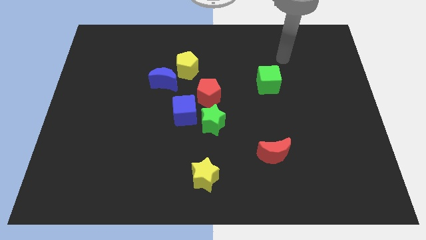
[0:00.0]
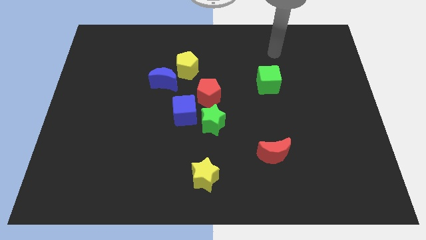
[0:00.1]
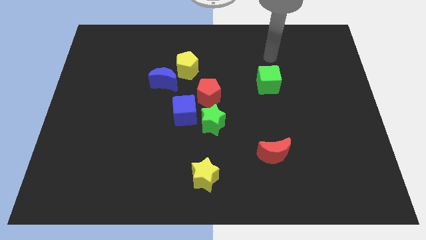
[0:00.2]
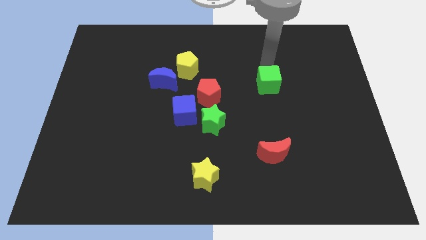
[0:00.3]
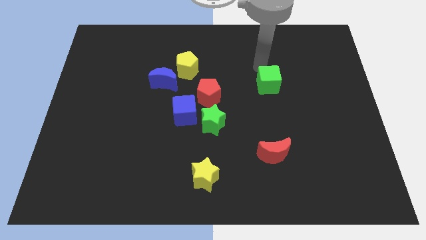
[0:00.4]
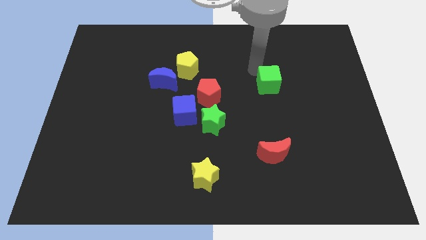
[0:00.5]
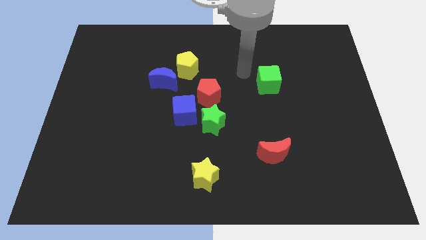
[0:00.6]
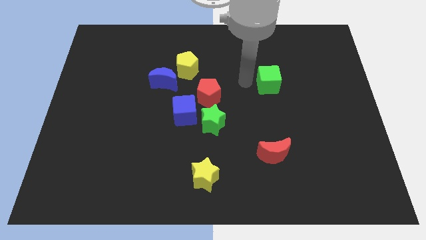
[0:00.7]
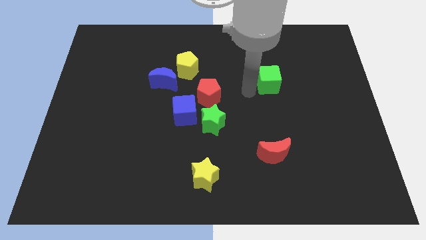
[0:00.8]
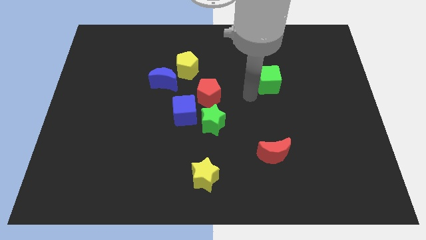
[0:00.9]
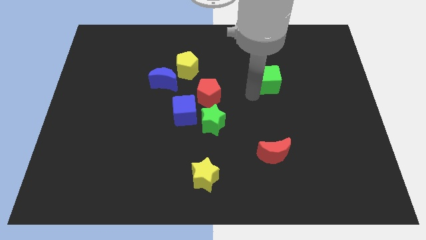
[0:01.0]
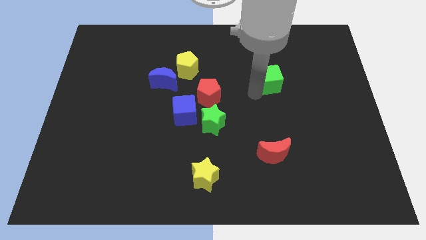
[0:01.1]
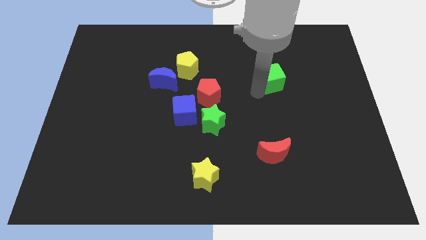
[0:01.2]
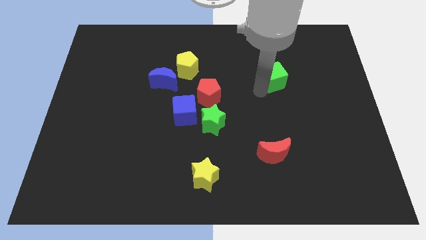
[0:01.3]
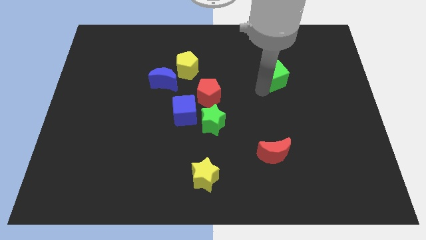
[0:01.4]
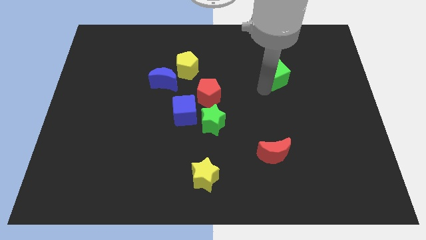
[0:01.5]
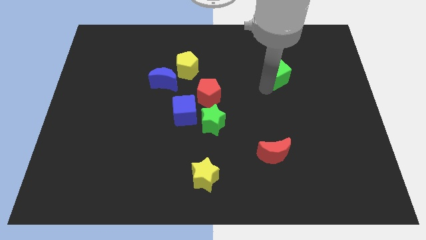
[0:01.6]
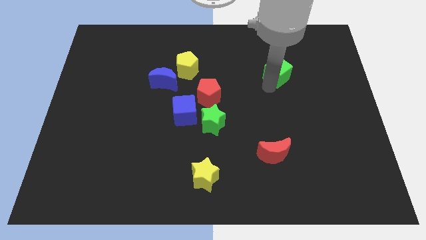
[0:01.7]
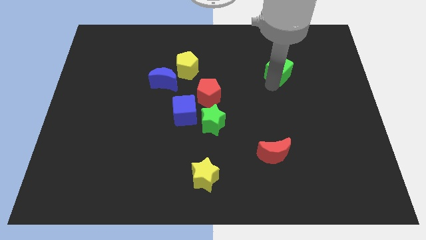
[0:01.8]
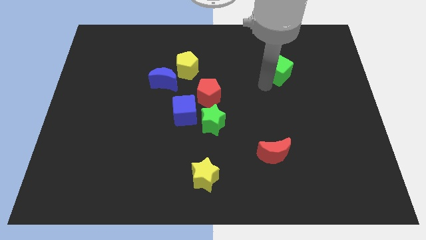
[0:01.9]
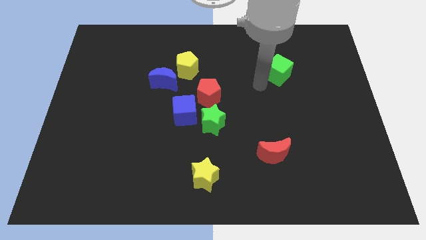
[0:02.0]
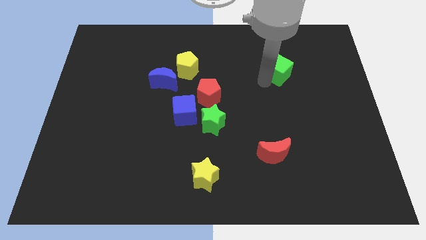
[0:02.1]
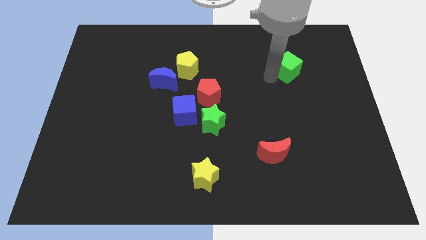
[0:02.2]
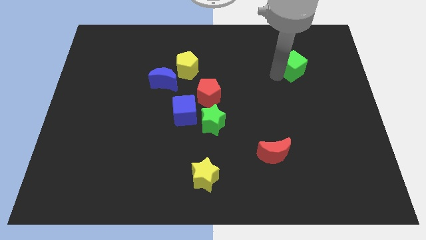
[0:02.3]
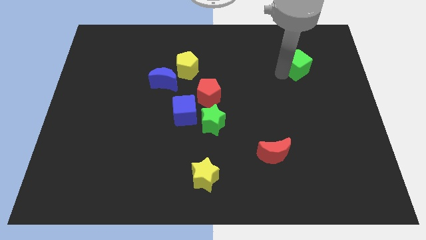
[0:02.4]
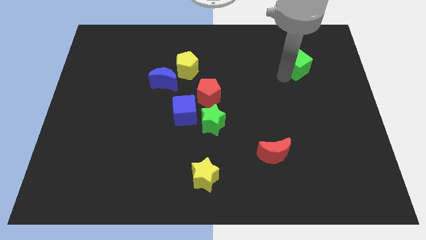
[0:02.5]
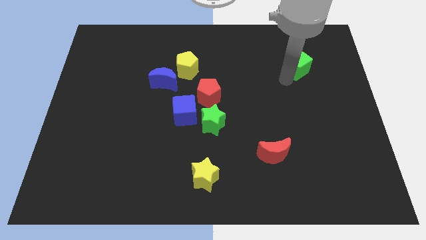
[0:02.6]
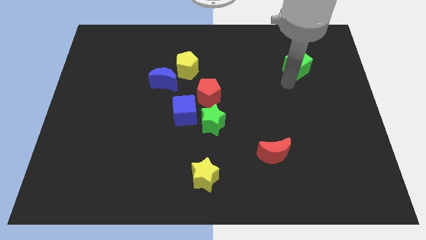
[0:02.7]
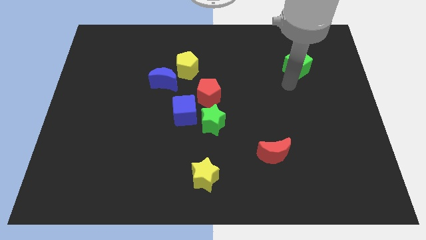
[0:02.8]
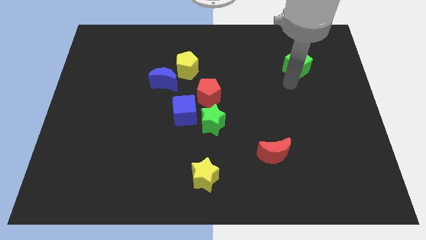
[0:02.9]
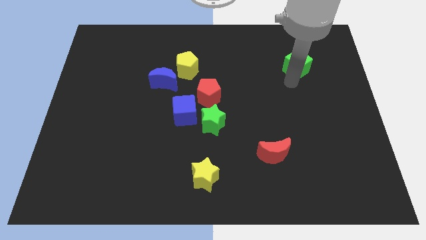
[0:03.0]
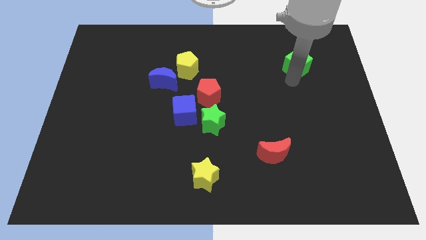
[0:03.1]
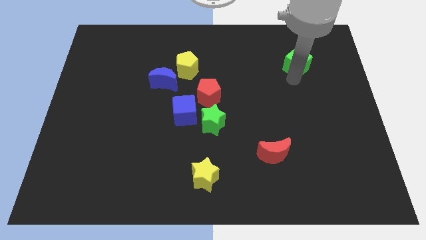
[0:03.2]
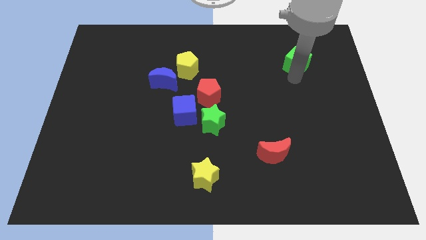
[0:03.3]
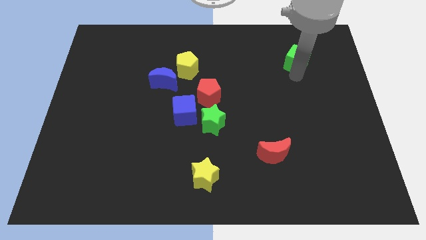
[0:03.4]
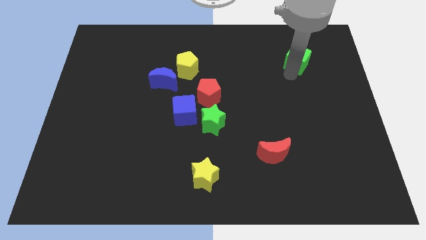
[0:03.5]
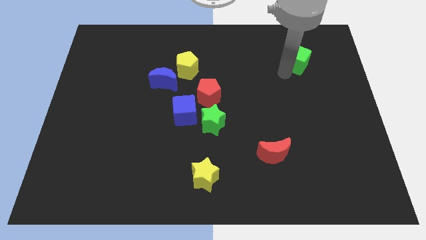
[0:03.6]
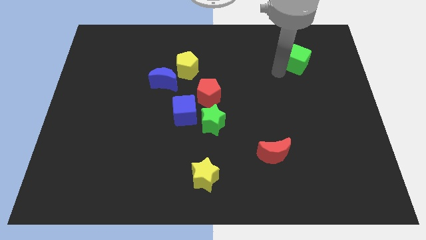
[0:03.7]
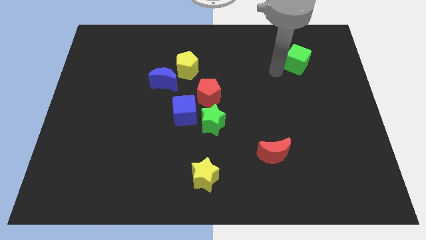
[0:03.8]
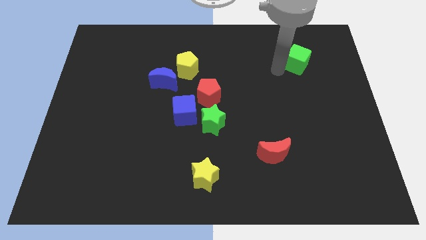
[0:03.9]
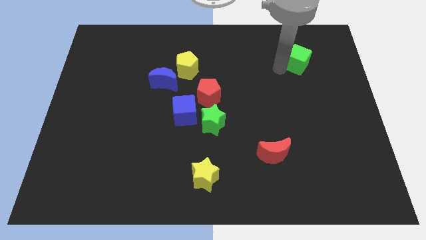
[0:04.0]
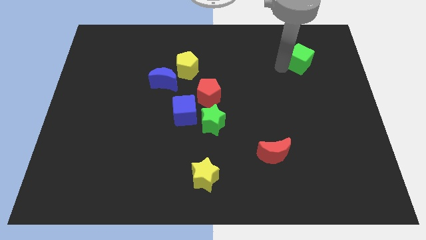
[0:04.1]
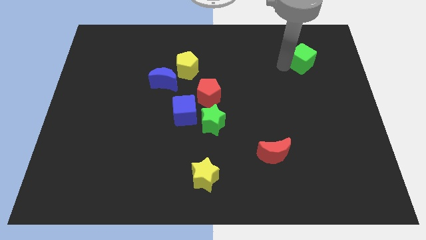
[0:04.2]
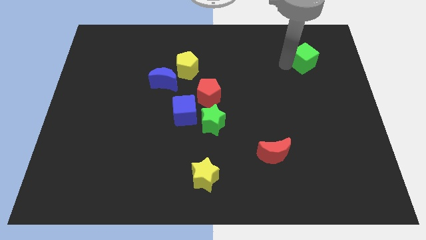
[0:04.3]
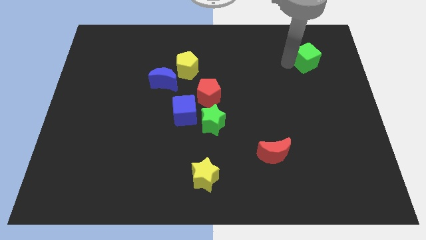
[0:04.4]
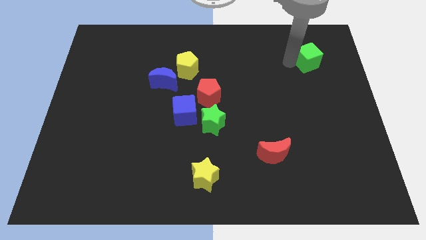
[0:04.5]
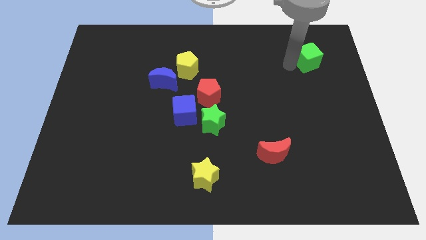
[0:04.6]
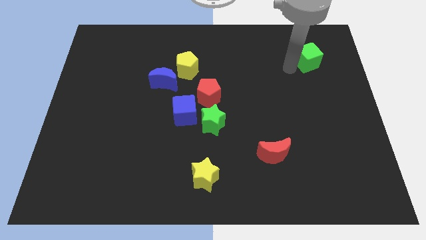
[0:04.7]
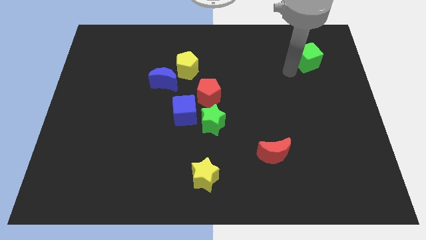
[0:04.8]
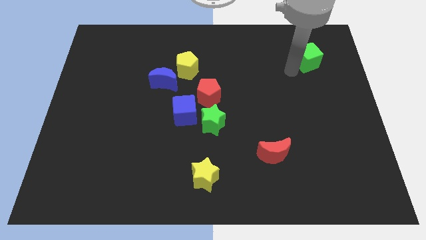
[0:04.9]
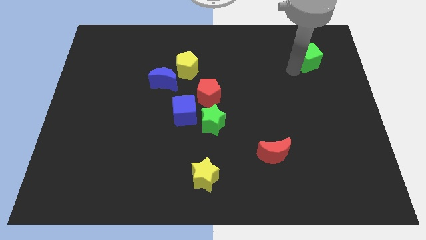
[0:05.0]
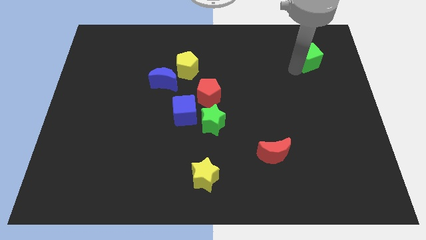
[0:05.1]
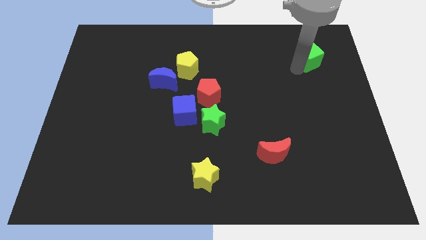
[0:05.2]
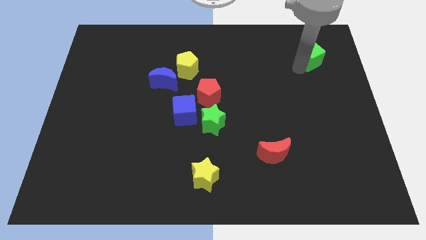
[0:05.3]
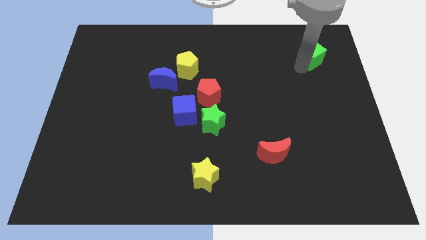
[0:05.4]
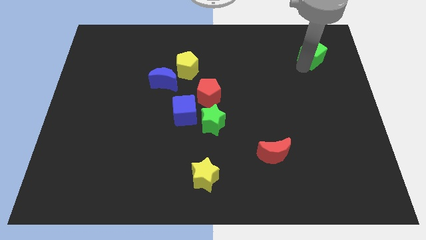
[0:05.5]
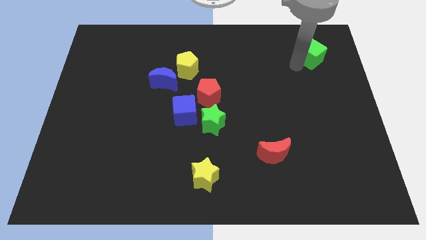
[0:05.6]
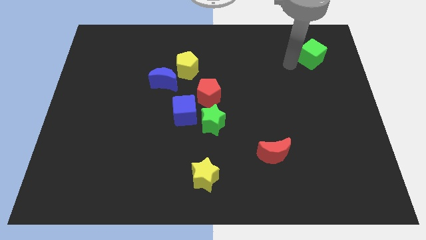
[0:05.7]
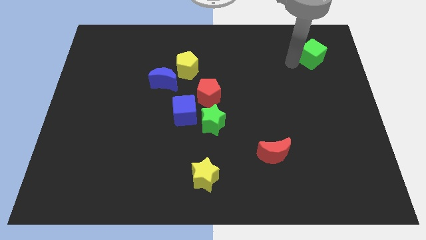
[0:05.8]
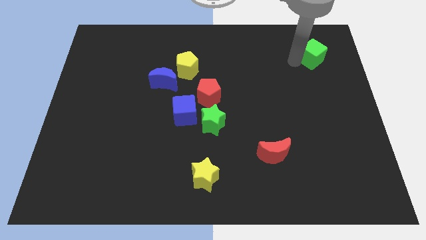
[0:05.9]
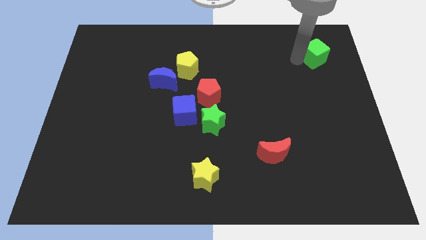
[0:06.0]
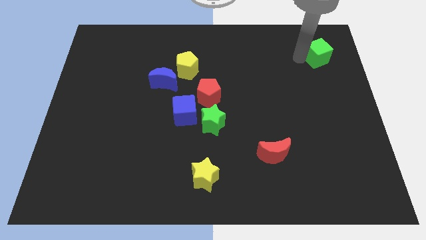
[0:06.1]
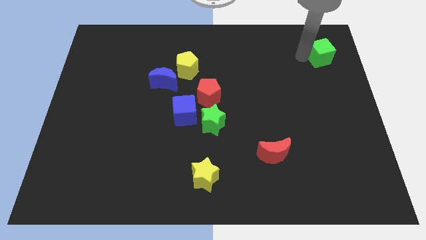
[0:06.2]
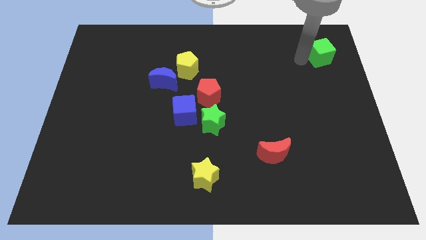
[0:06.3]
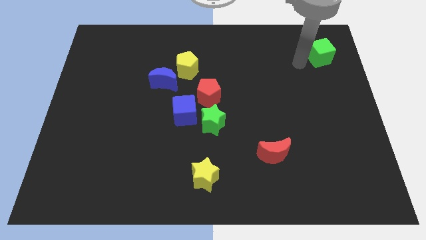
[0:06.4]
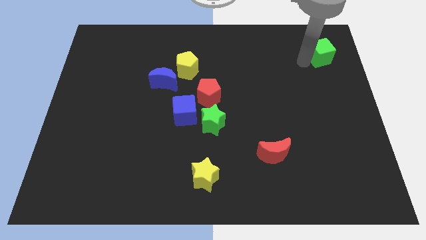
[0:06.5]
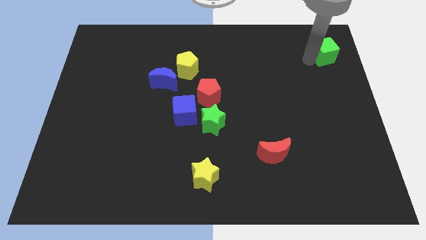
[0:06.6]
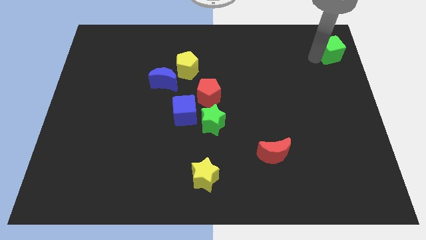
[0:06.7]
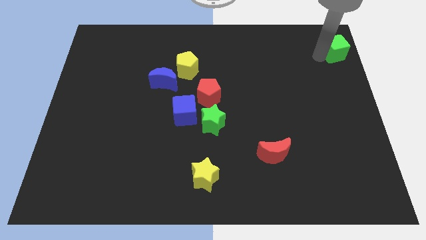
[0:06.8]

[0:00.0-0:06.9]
put the green cube to the top right
